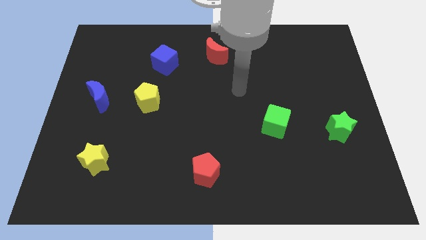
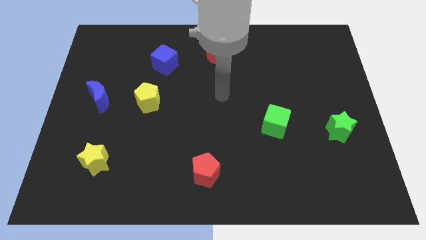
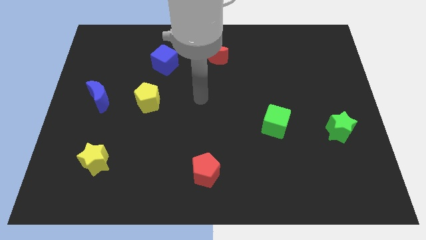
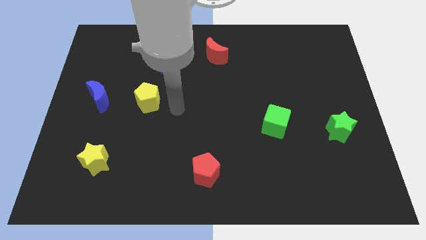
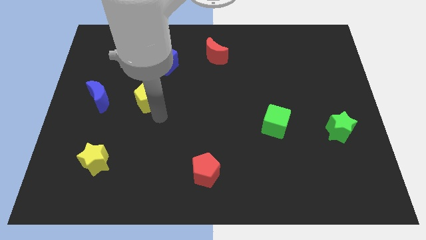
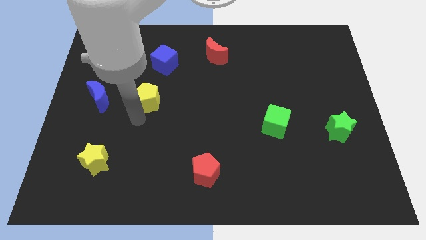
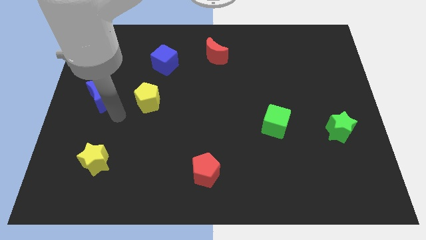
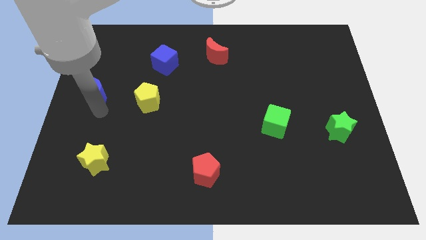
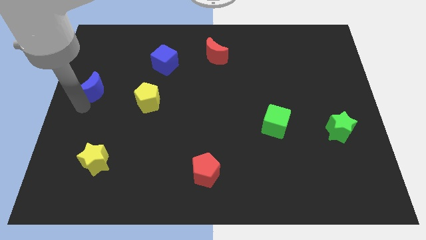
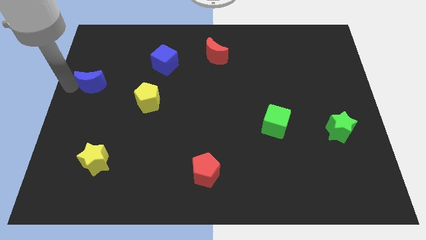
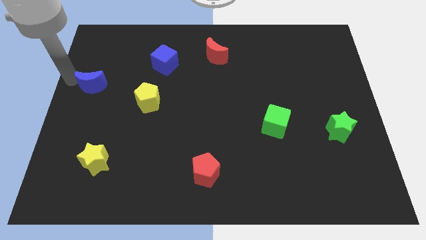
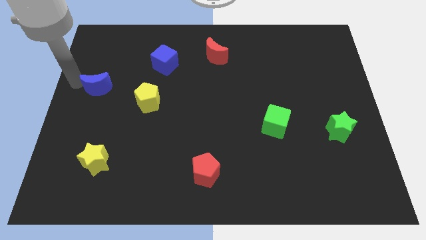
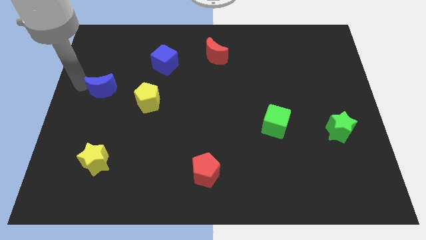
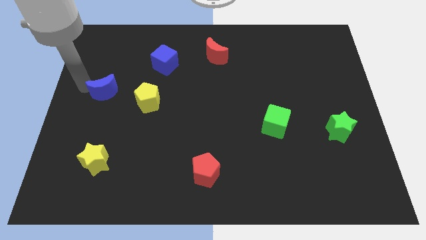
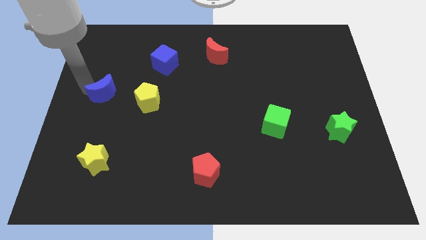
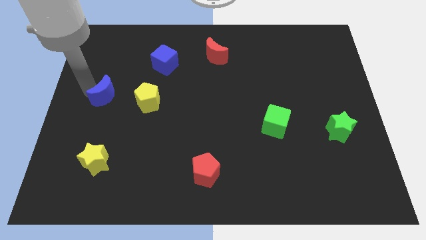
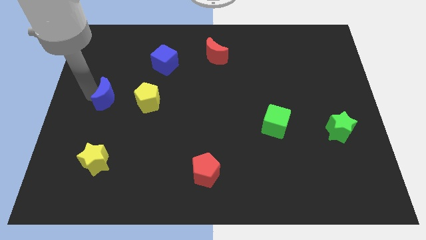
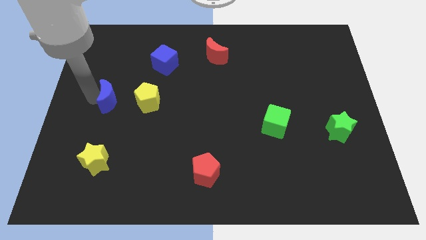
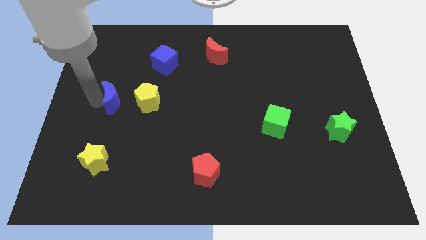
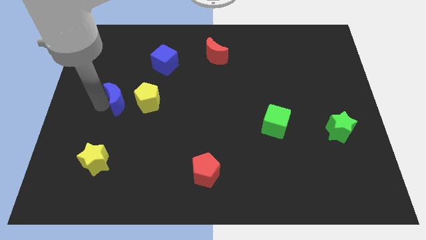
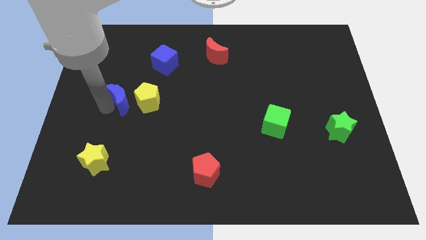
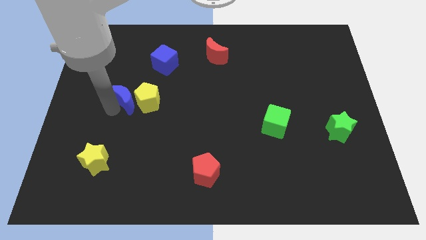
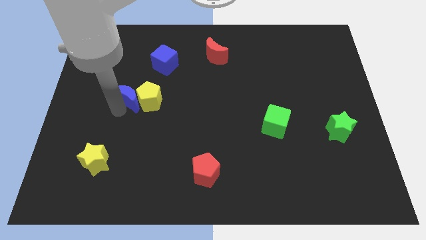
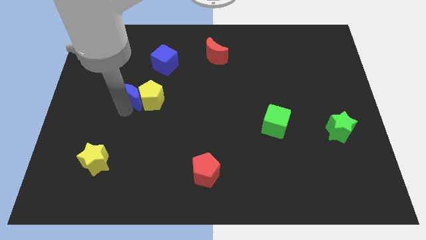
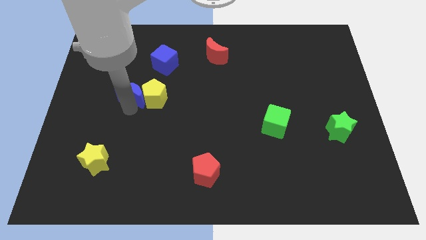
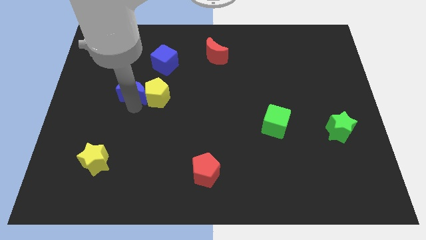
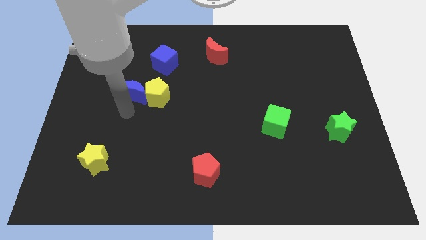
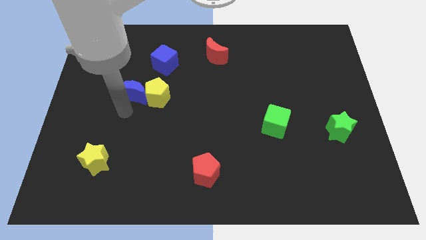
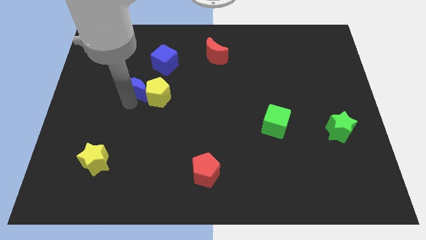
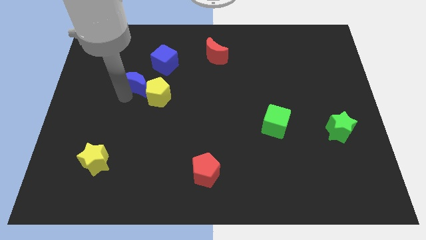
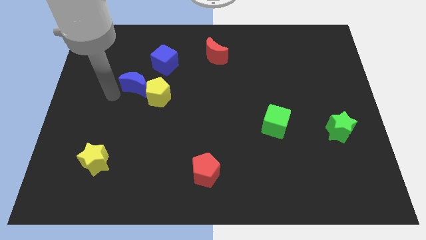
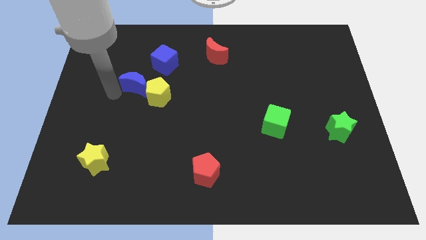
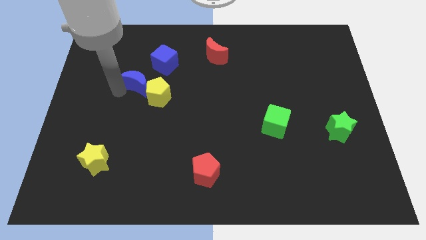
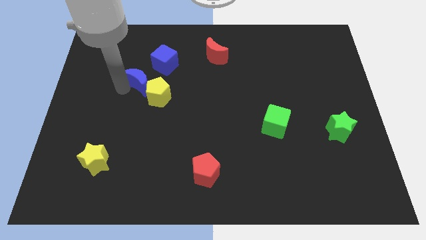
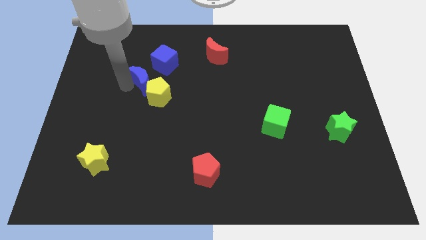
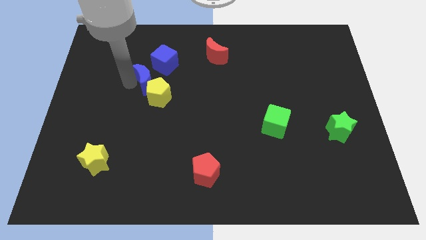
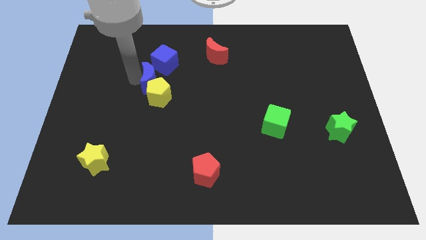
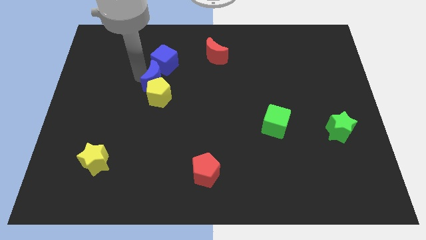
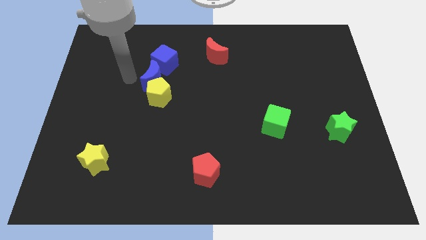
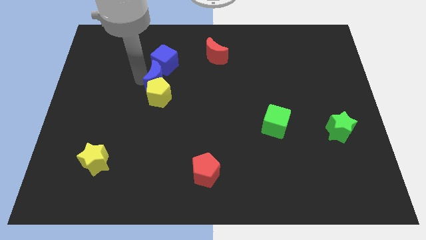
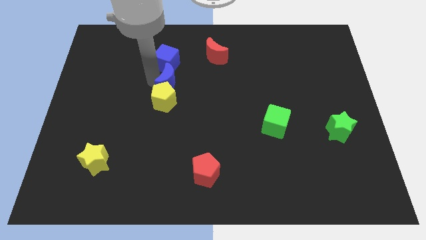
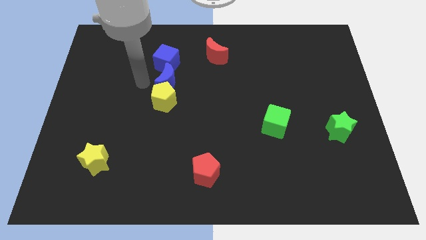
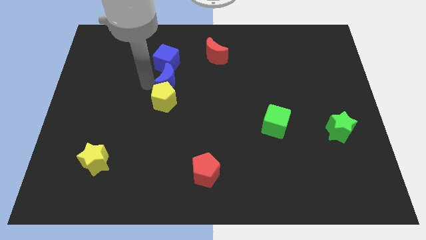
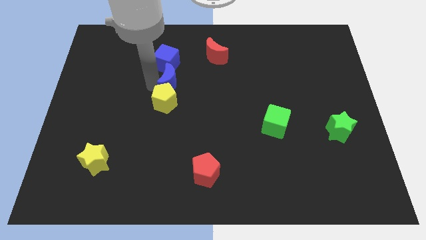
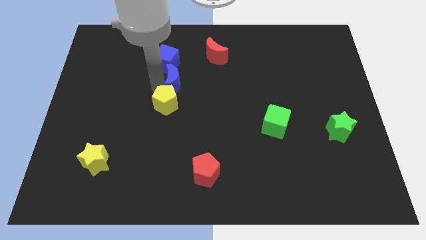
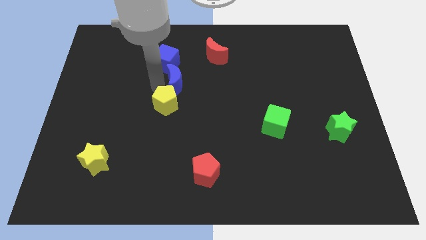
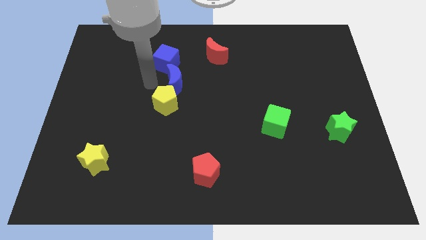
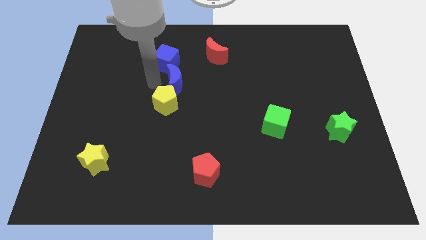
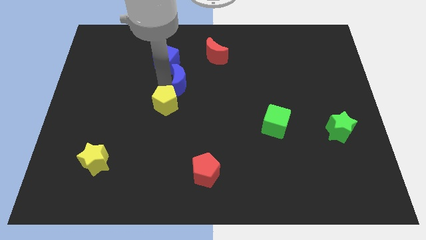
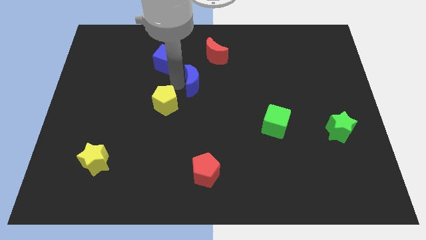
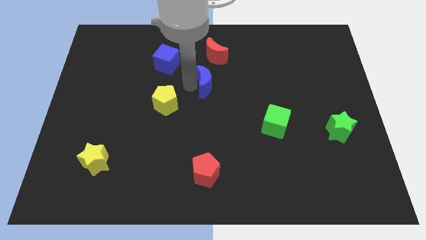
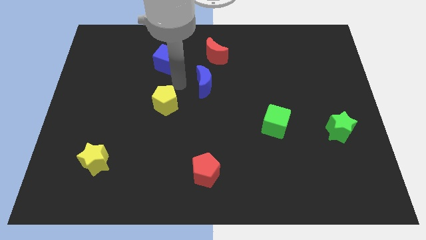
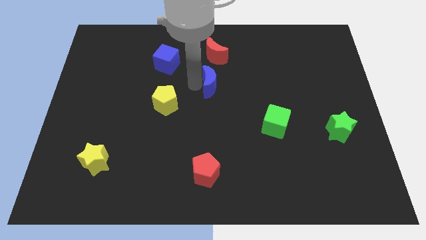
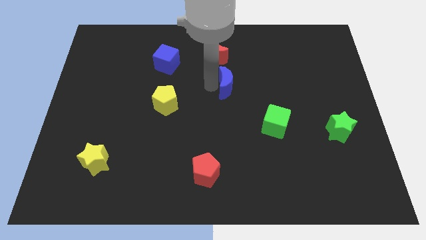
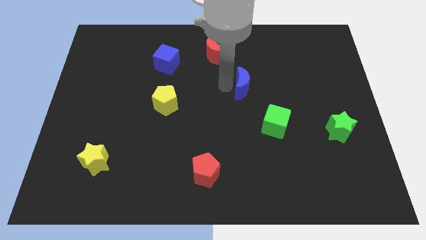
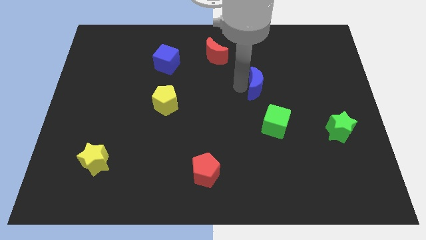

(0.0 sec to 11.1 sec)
push the blue moon above the green cube

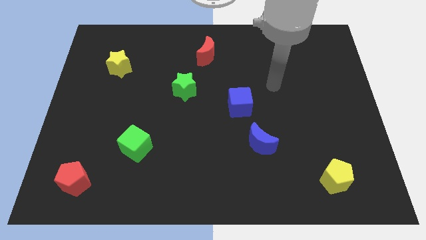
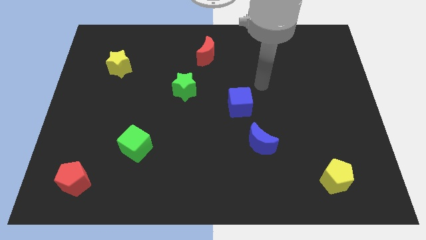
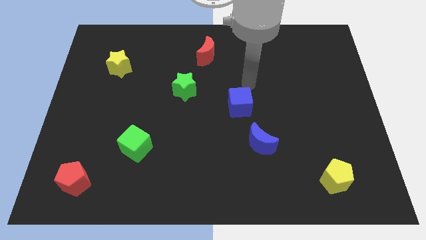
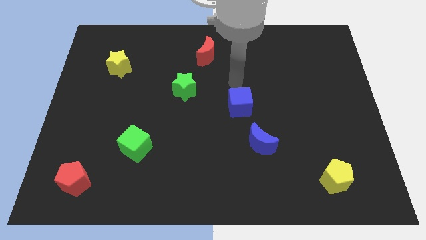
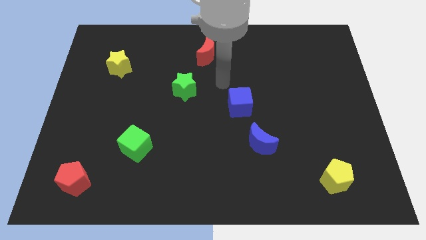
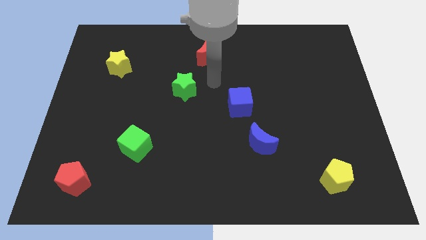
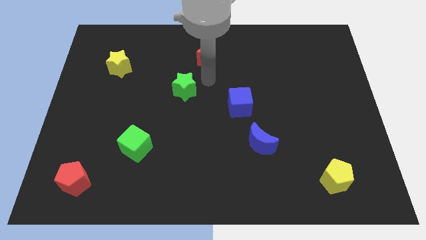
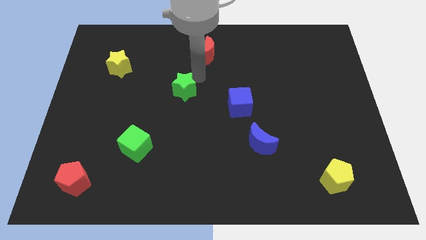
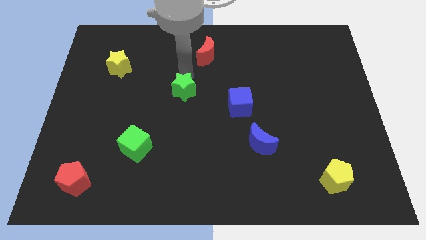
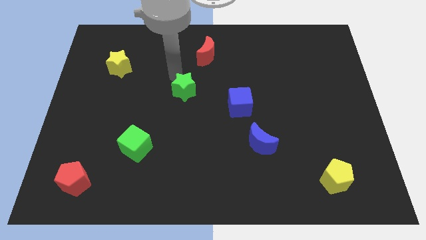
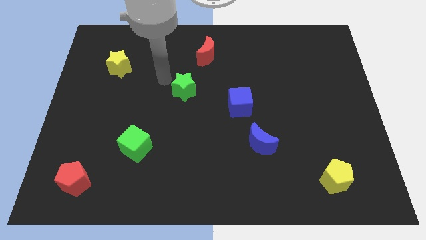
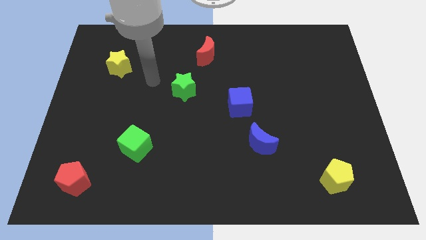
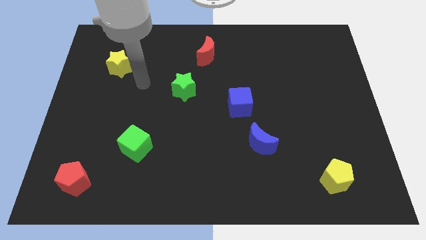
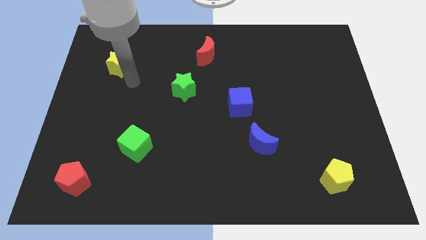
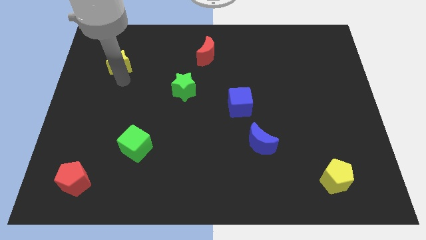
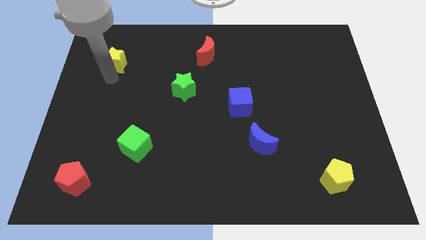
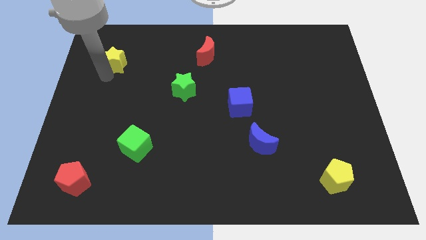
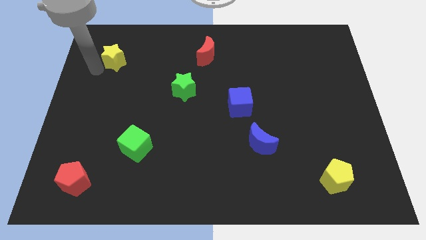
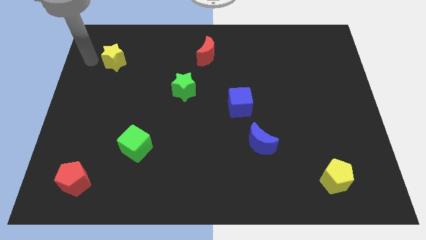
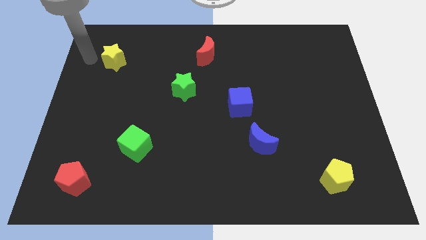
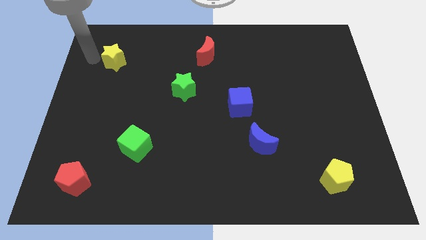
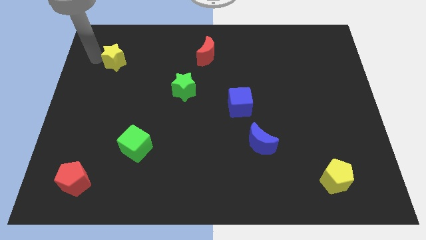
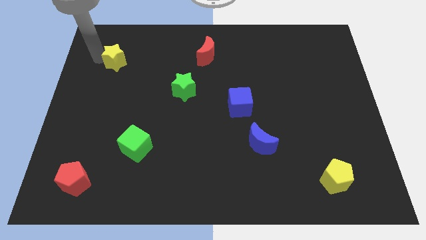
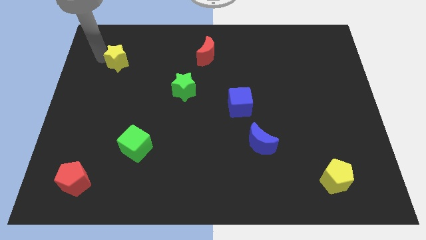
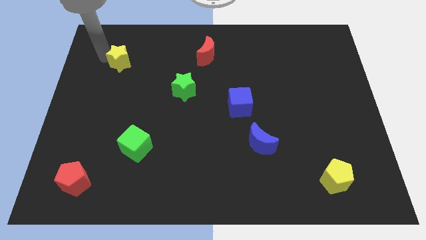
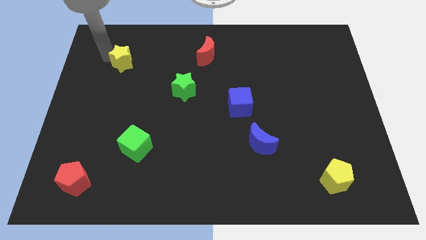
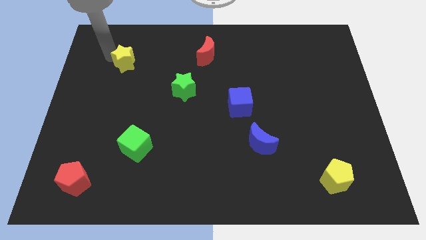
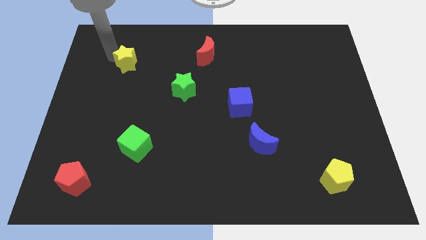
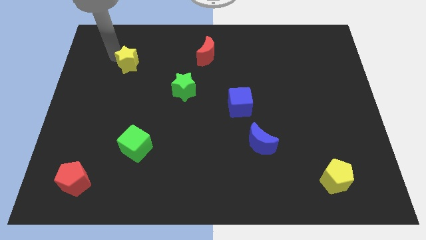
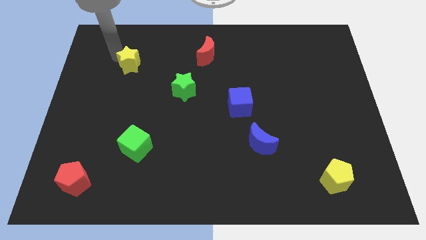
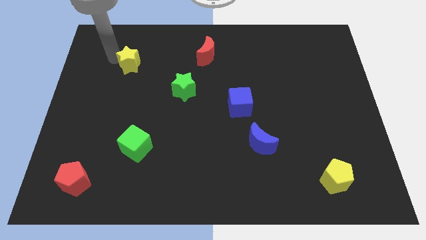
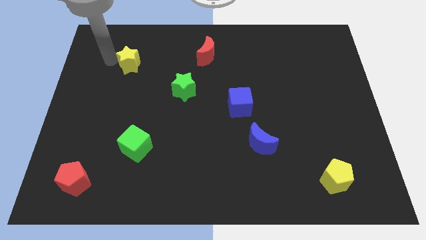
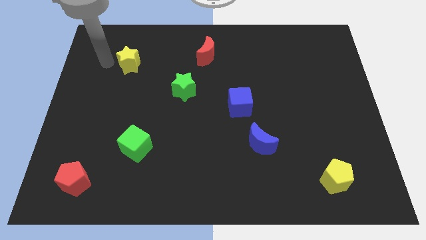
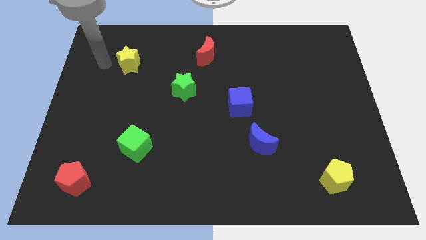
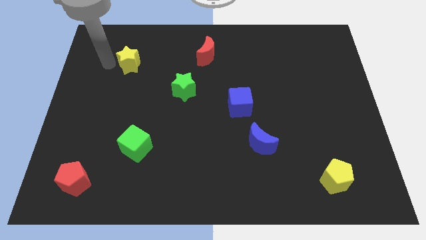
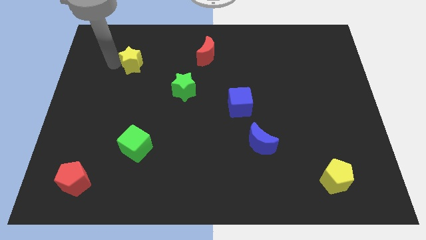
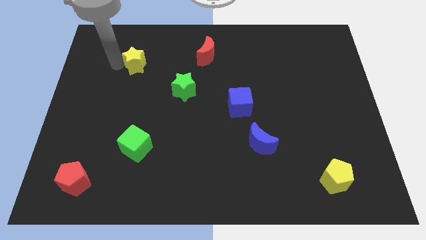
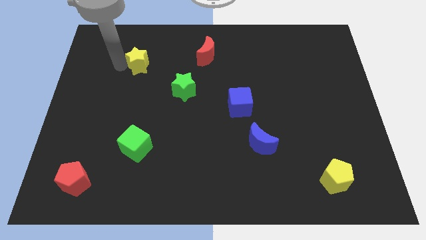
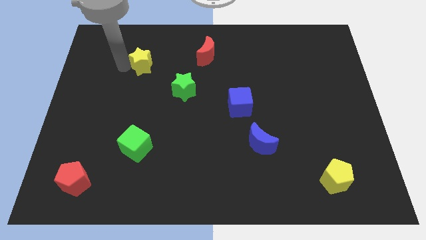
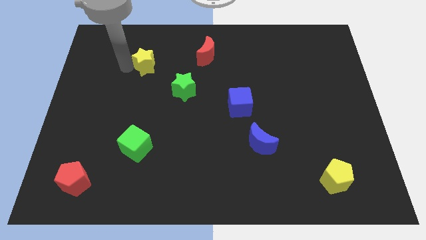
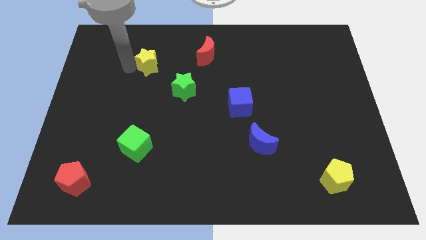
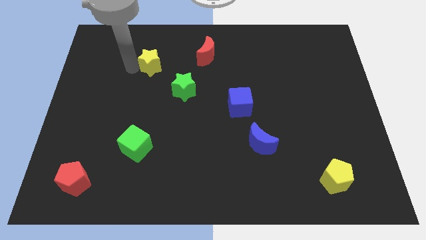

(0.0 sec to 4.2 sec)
put the yellow star just left of the red moon
